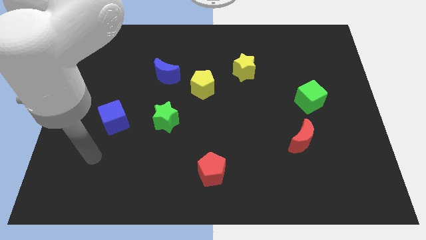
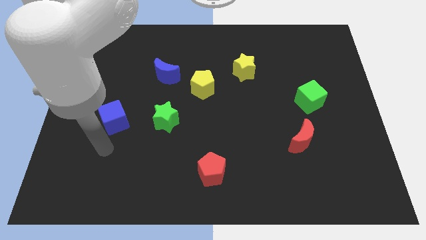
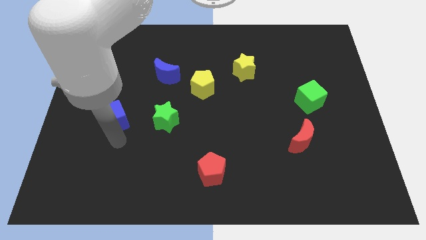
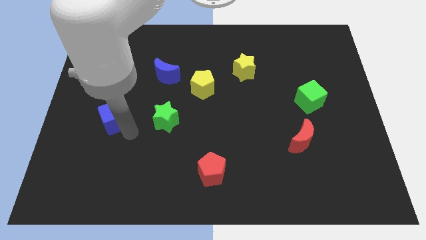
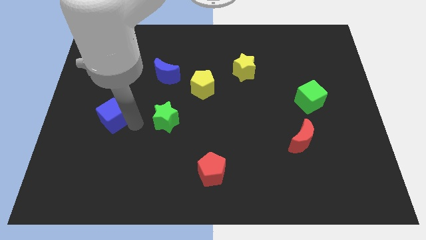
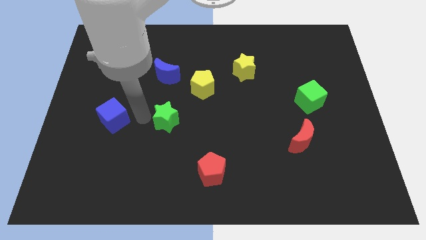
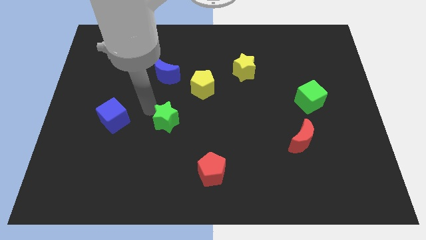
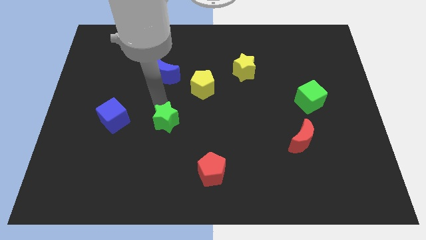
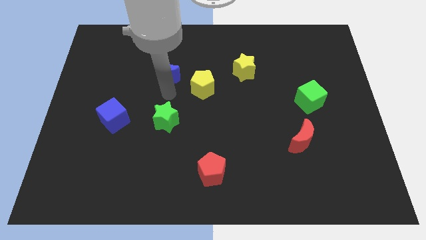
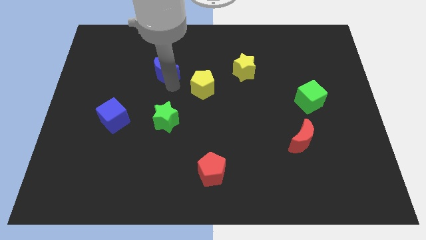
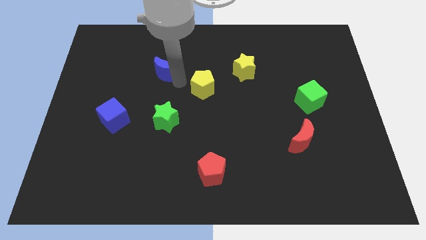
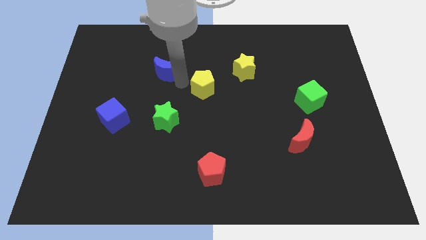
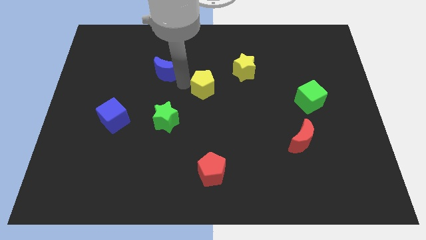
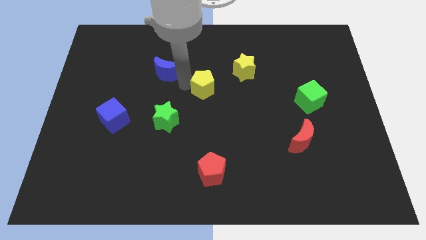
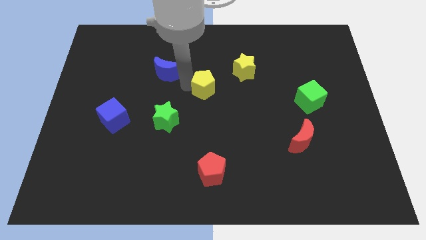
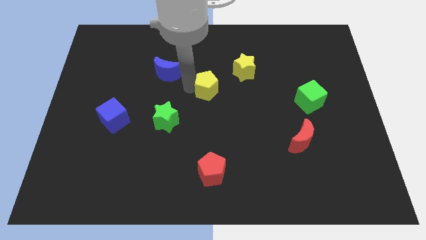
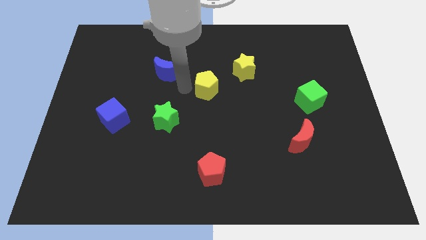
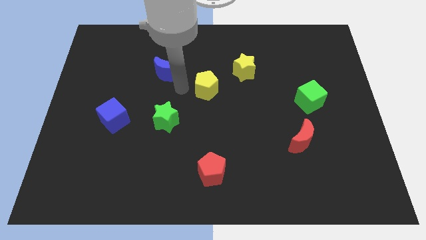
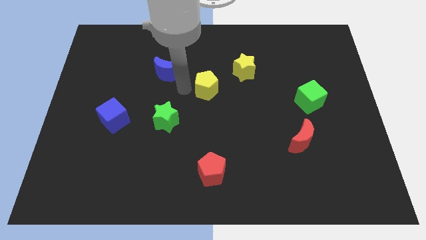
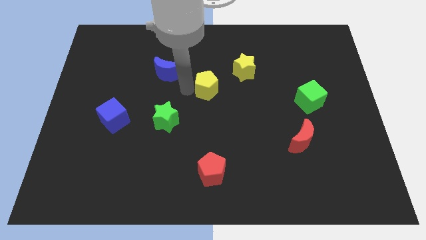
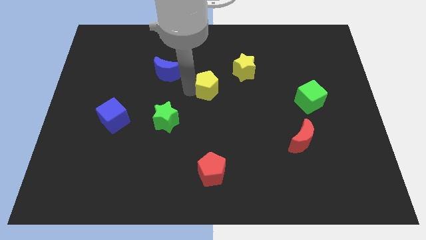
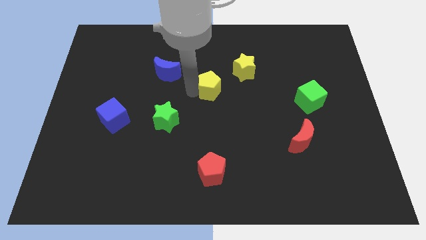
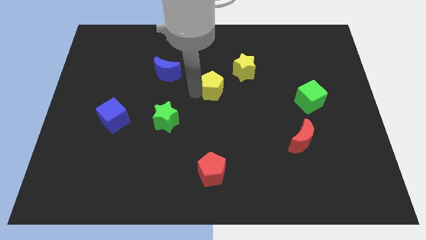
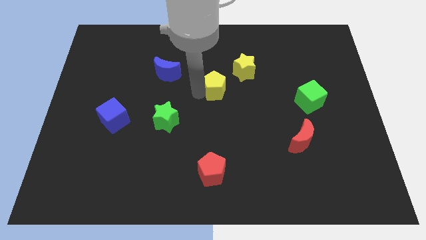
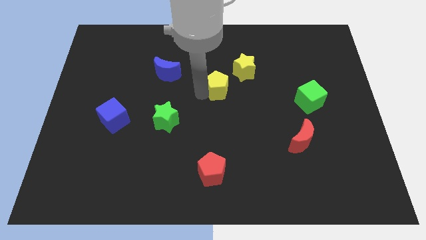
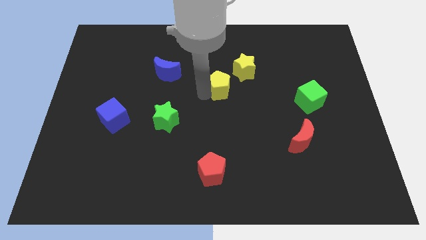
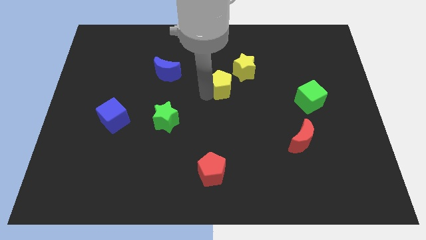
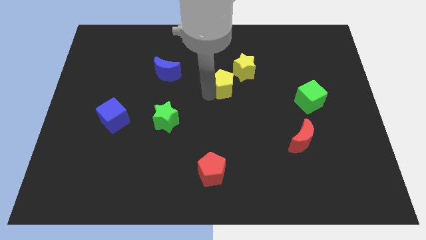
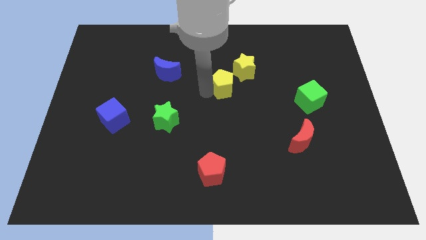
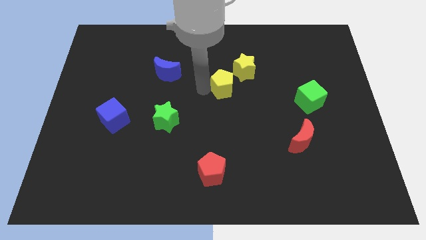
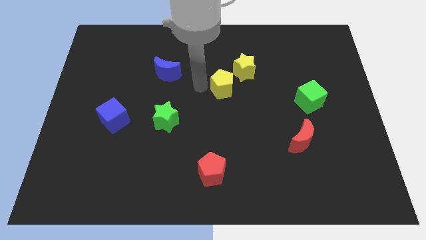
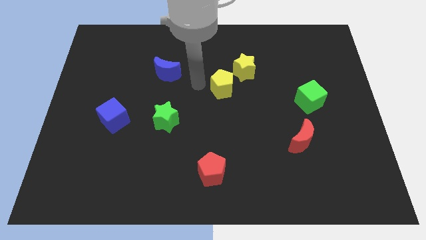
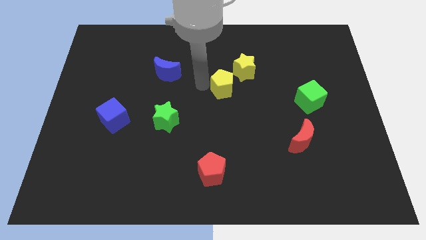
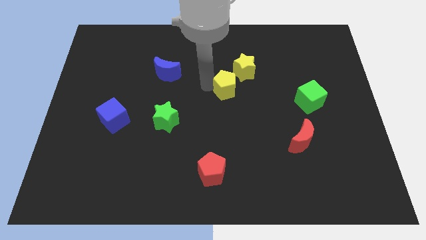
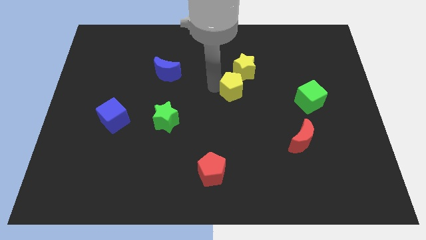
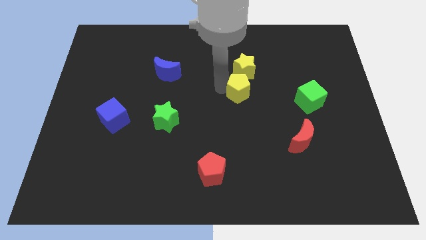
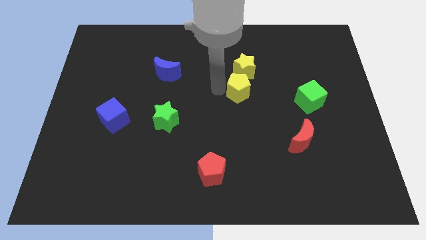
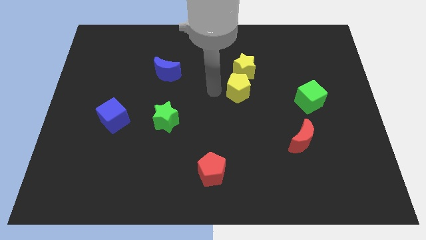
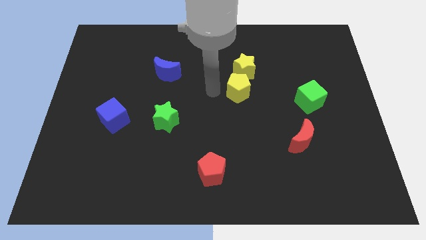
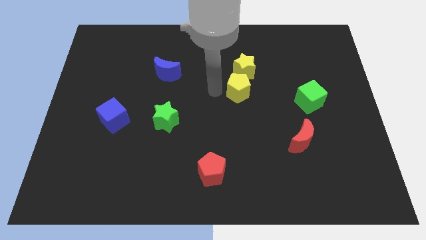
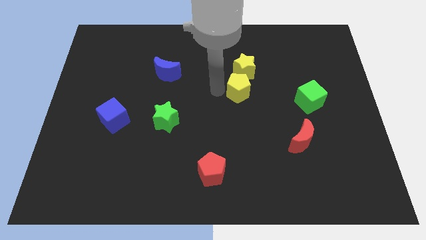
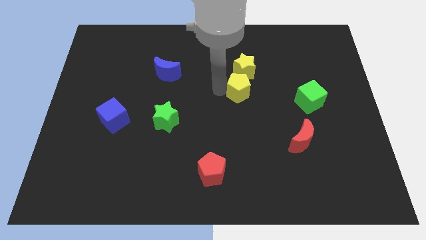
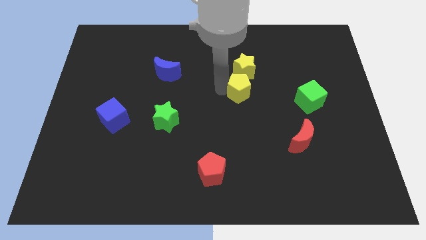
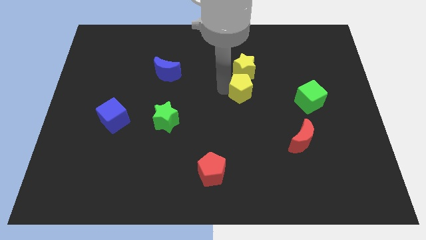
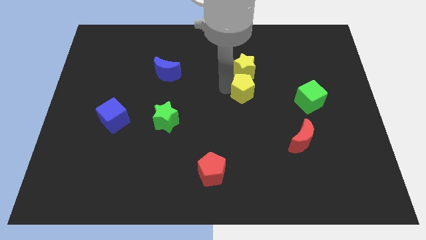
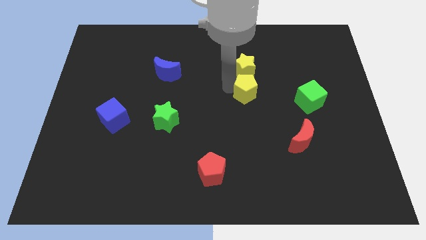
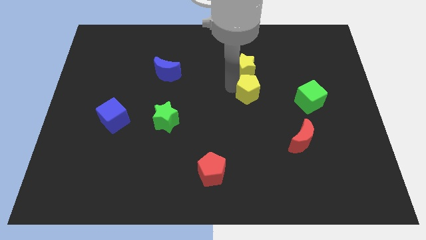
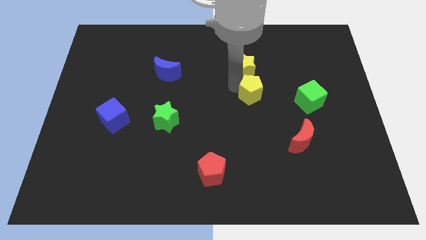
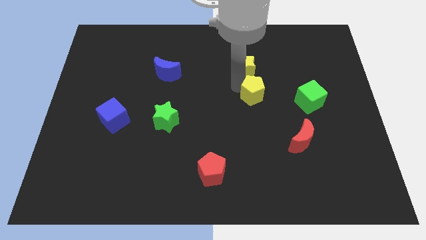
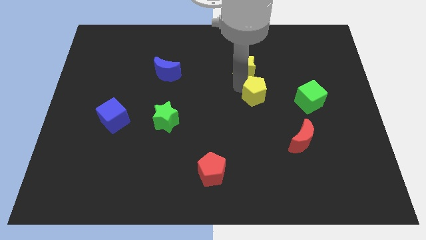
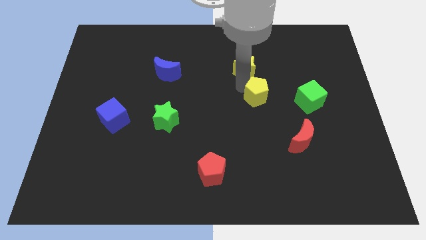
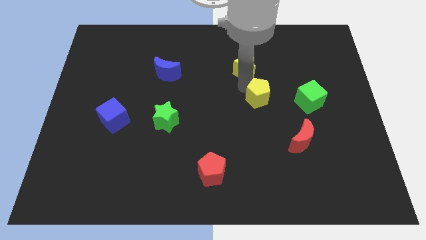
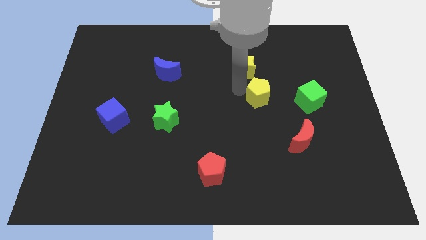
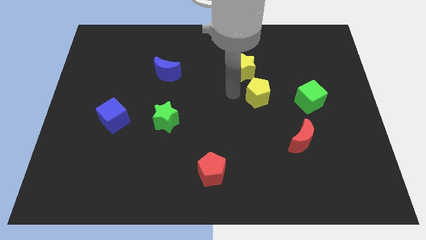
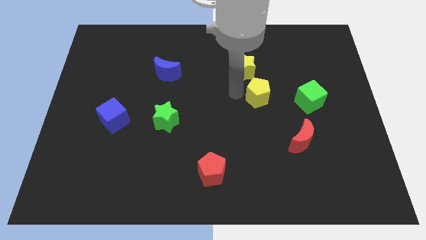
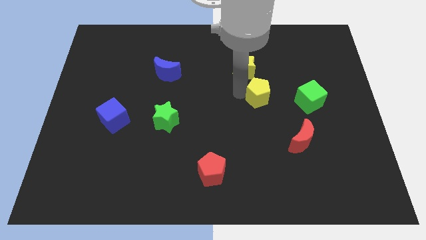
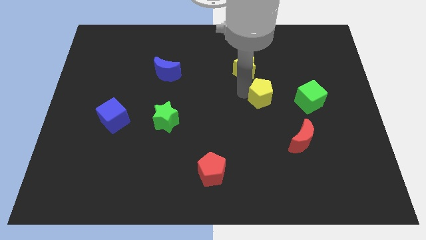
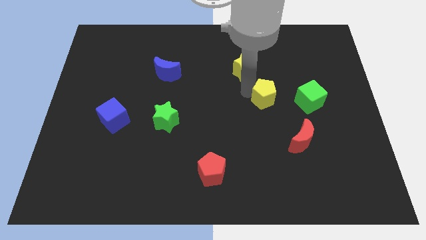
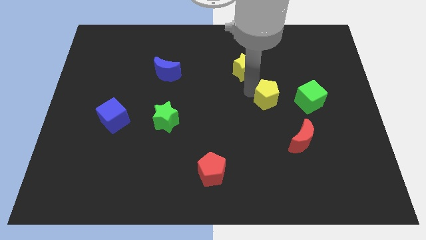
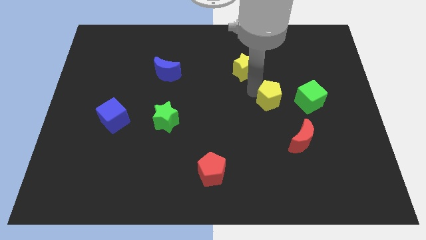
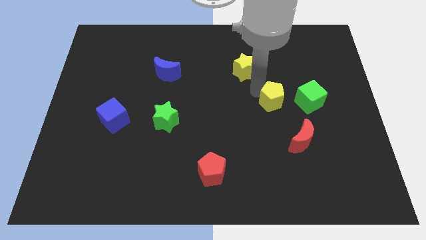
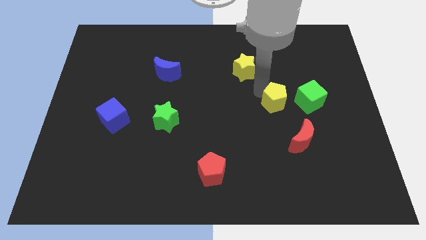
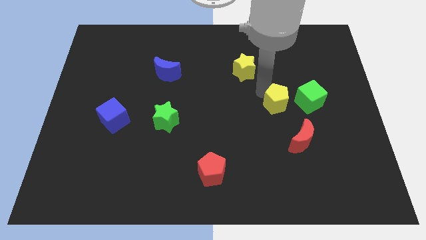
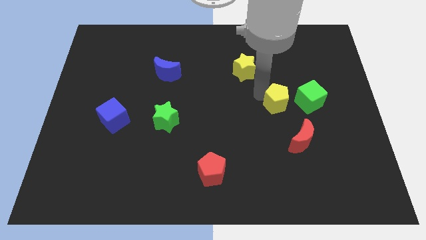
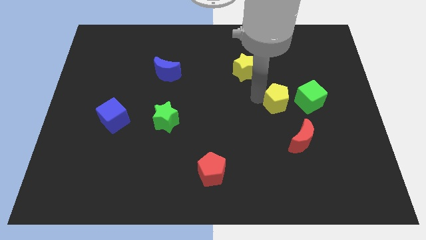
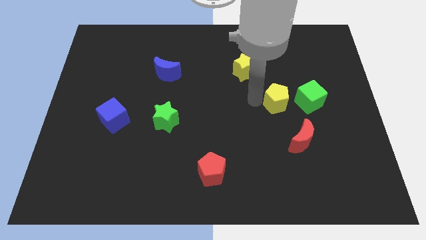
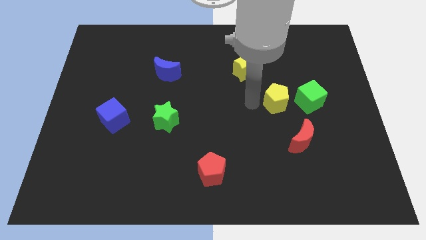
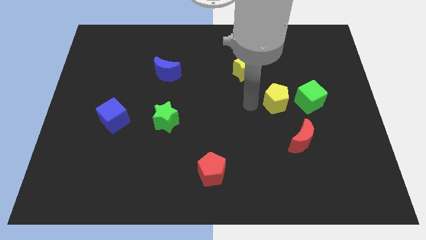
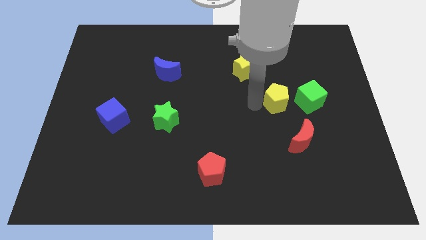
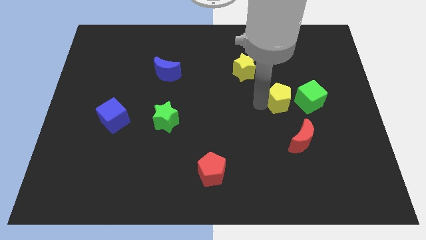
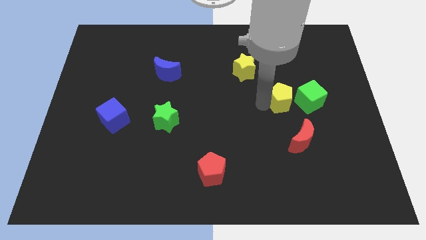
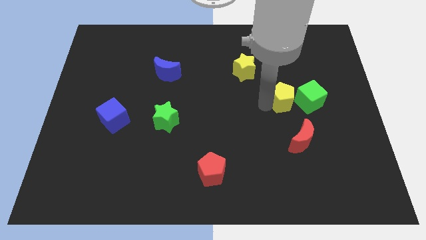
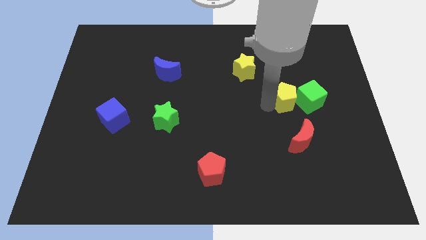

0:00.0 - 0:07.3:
put the yellow pentagon to the green cube
